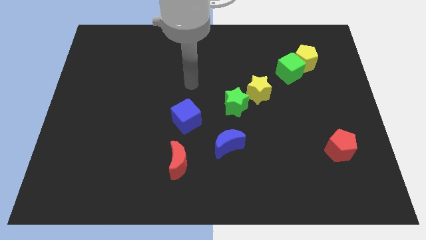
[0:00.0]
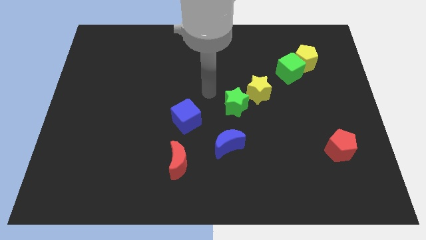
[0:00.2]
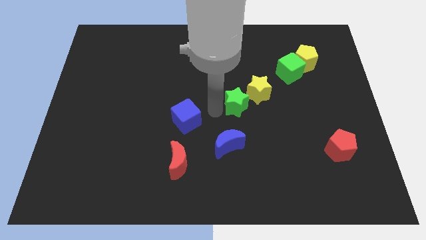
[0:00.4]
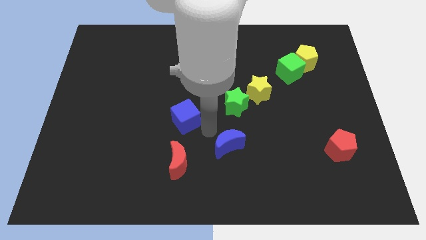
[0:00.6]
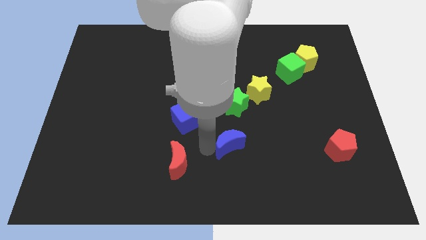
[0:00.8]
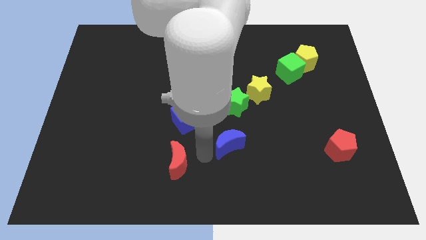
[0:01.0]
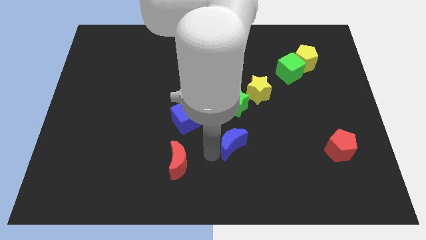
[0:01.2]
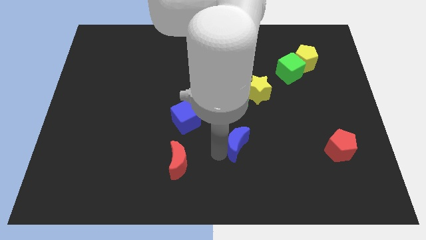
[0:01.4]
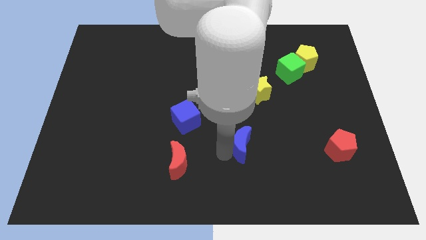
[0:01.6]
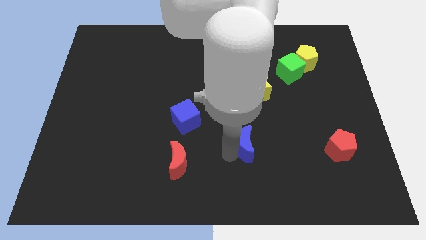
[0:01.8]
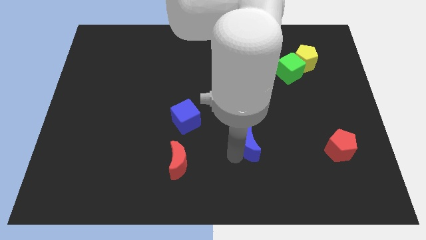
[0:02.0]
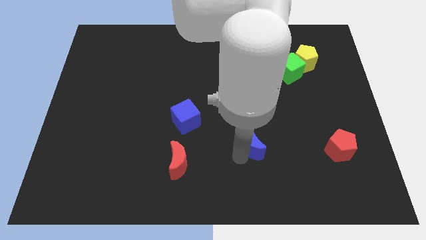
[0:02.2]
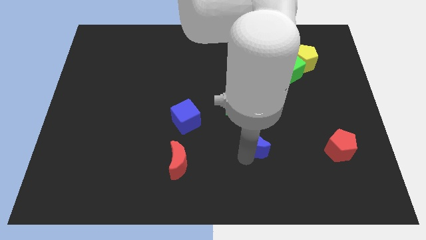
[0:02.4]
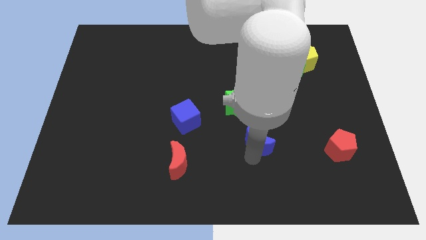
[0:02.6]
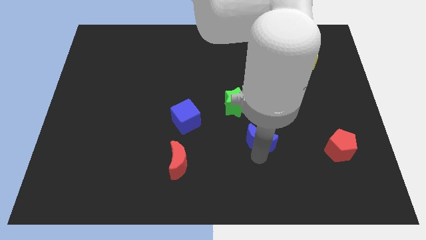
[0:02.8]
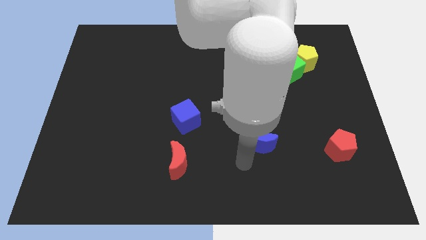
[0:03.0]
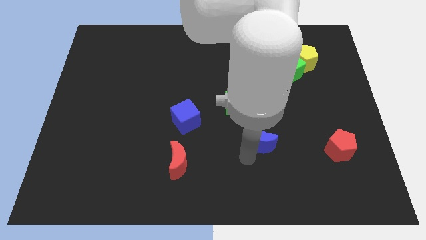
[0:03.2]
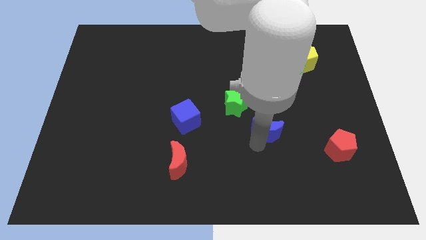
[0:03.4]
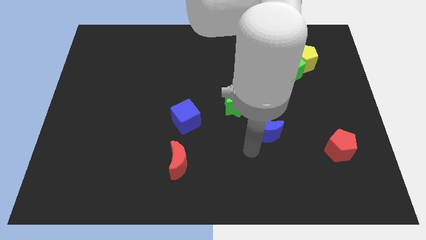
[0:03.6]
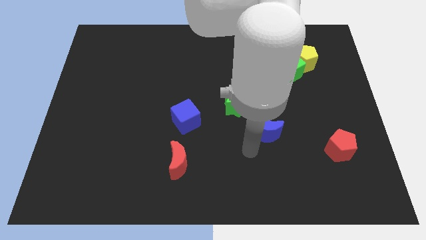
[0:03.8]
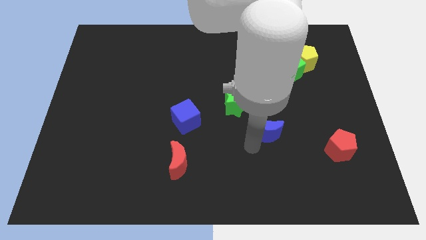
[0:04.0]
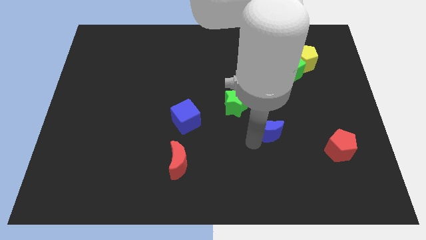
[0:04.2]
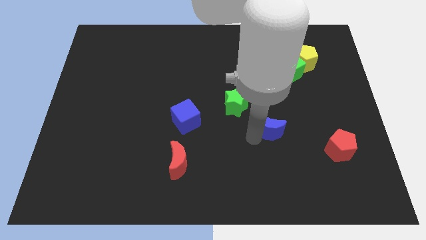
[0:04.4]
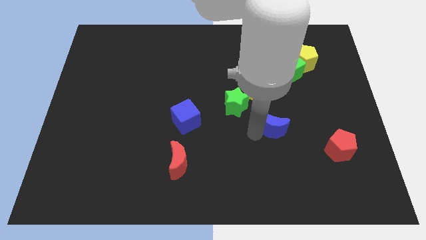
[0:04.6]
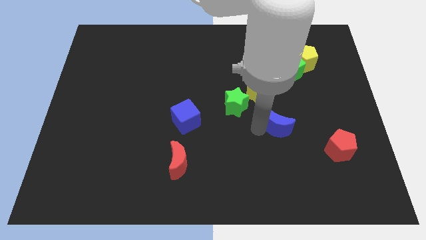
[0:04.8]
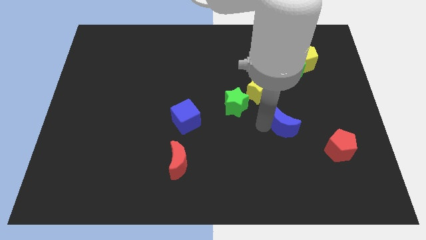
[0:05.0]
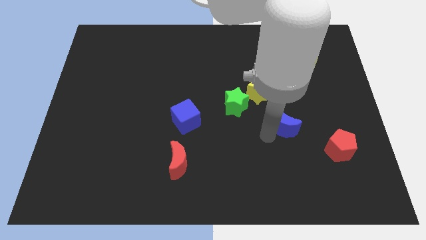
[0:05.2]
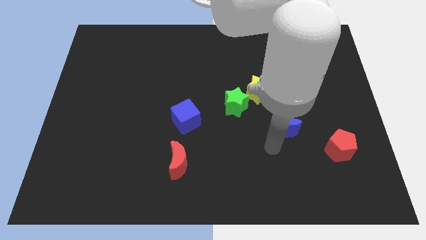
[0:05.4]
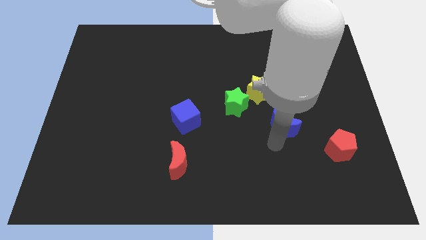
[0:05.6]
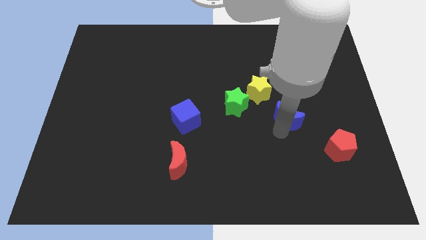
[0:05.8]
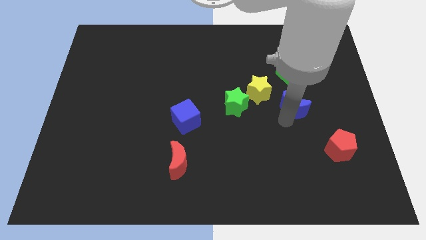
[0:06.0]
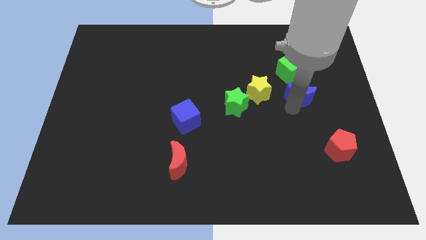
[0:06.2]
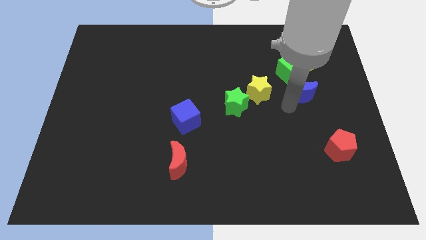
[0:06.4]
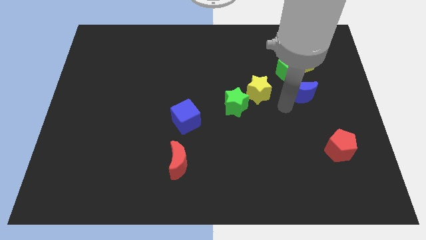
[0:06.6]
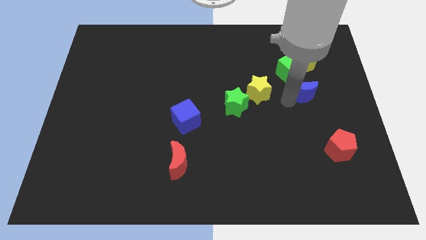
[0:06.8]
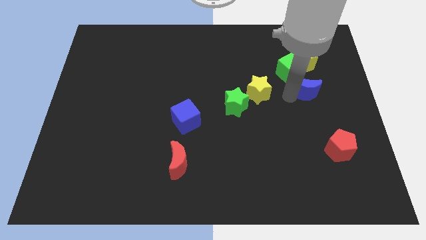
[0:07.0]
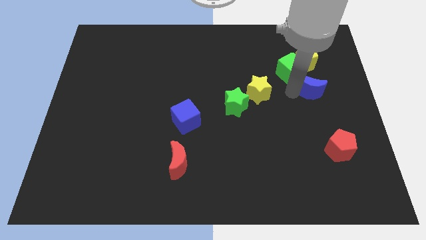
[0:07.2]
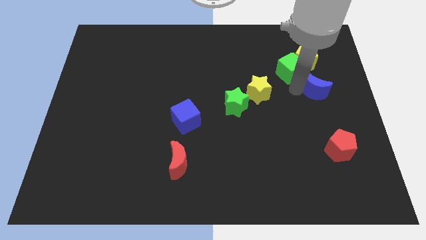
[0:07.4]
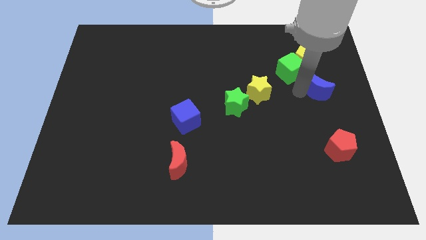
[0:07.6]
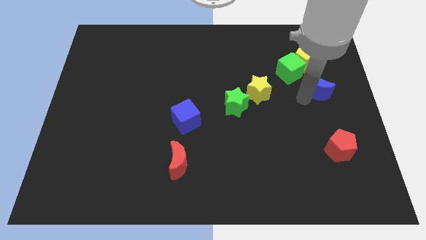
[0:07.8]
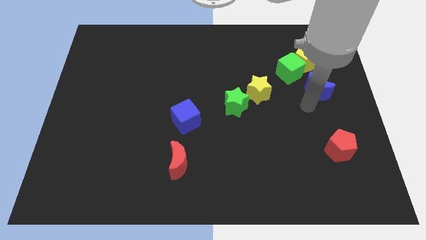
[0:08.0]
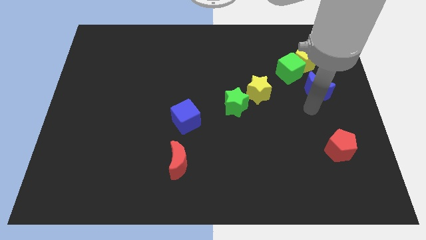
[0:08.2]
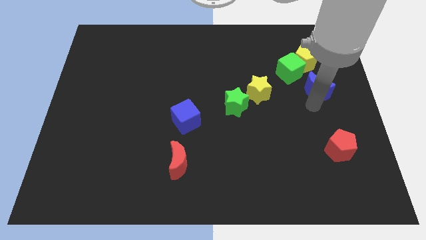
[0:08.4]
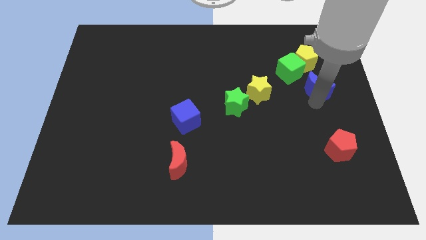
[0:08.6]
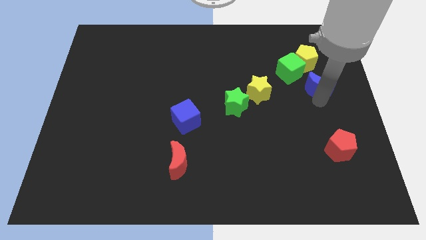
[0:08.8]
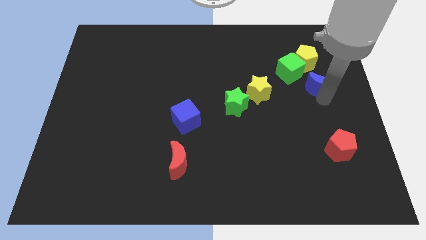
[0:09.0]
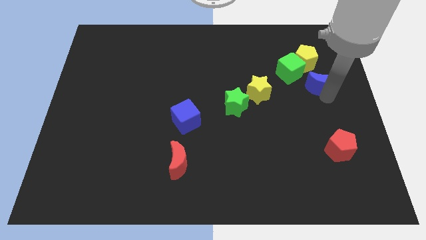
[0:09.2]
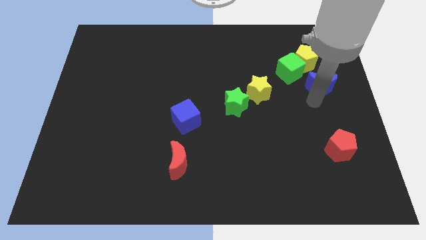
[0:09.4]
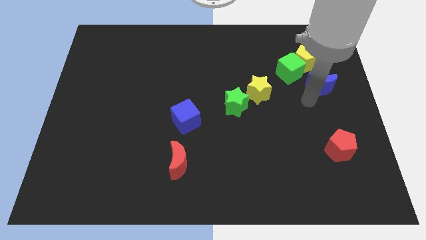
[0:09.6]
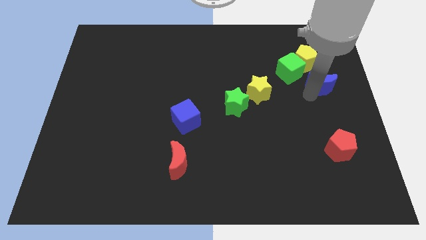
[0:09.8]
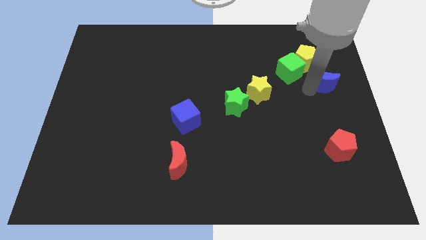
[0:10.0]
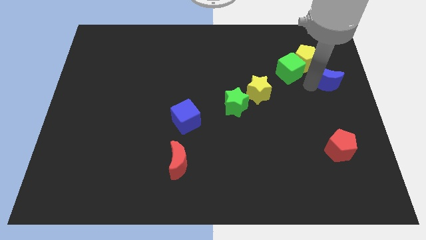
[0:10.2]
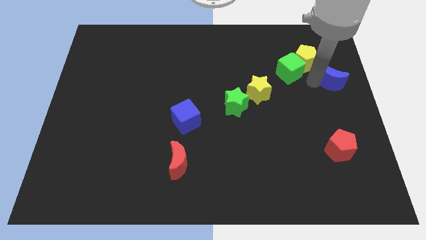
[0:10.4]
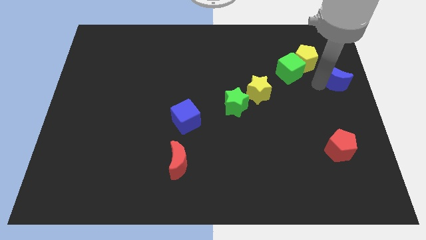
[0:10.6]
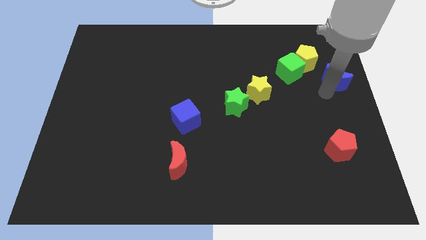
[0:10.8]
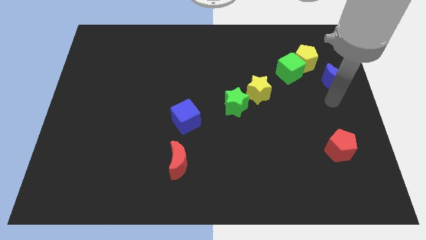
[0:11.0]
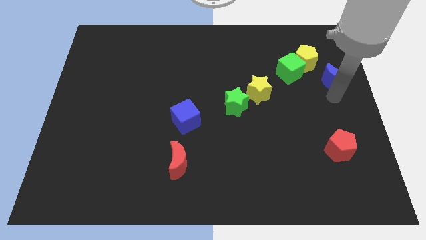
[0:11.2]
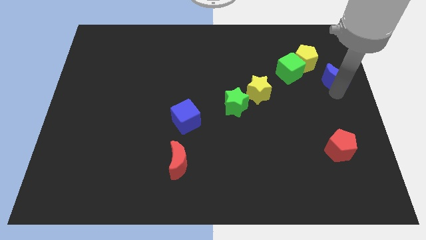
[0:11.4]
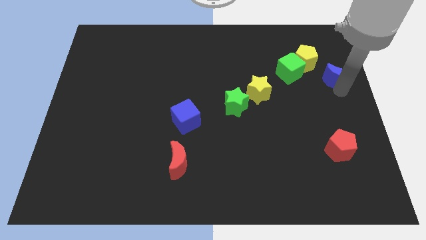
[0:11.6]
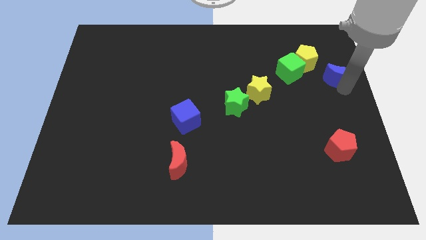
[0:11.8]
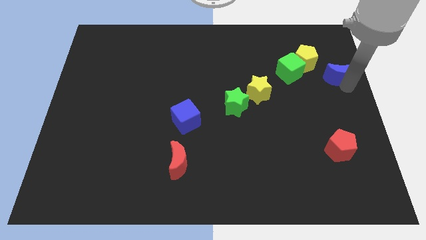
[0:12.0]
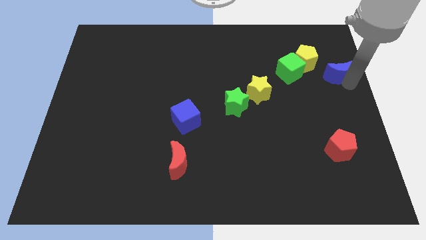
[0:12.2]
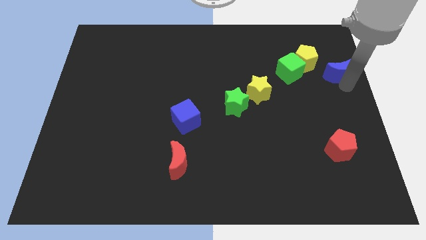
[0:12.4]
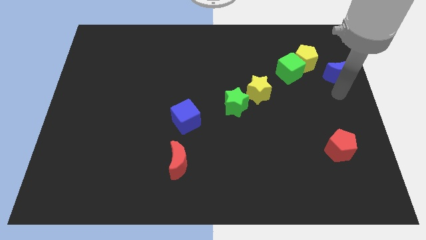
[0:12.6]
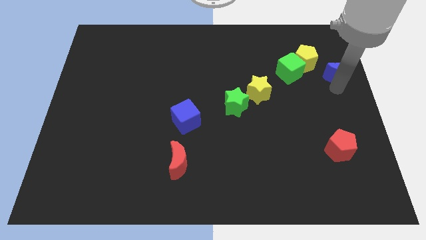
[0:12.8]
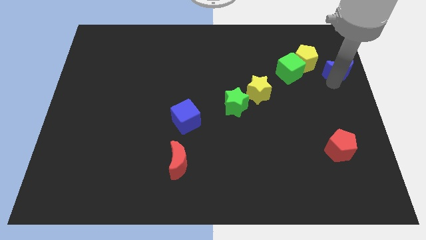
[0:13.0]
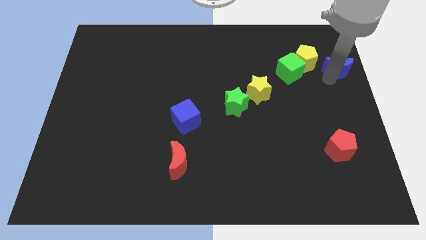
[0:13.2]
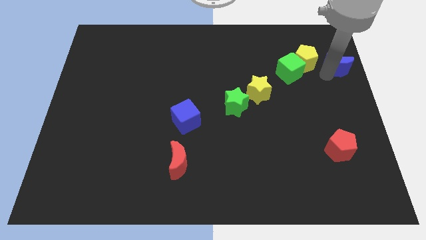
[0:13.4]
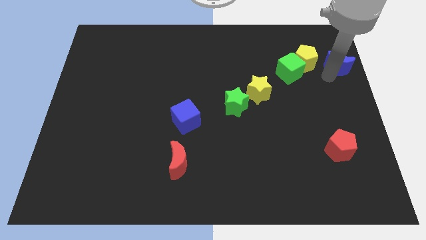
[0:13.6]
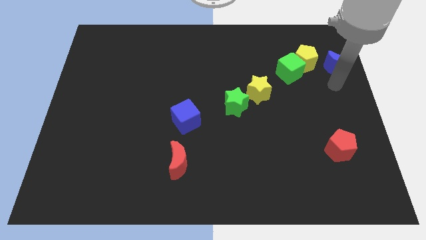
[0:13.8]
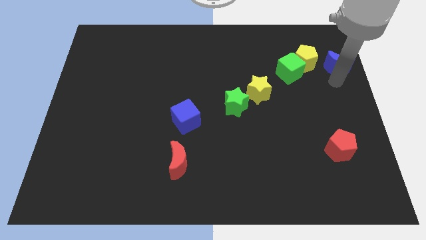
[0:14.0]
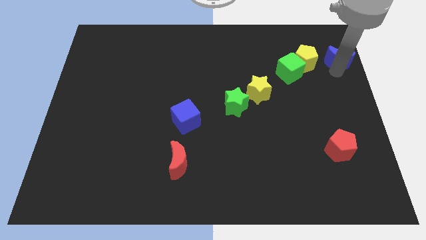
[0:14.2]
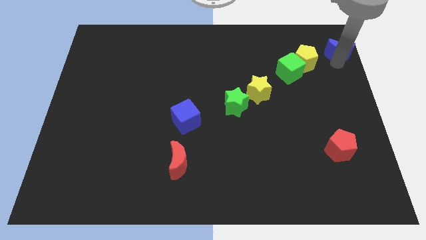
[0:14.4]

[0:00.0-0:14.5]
put the blue moon to the top right

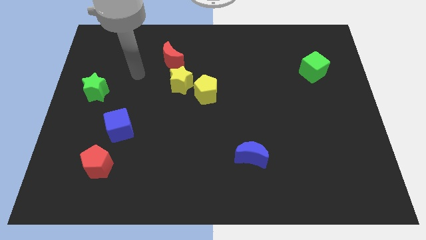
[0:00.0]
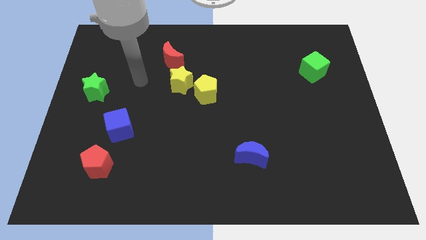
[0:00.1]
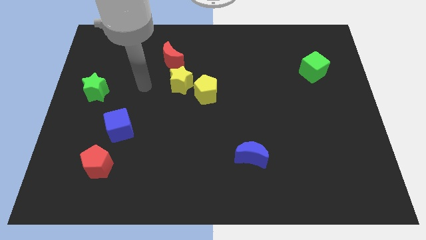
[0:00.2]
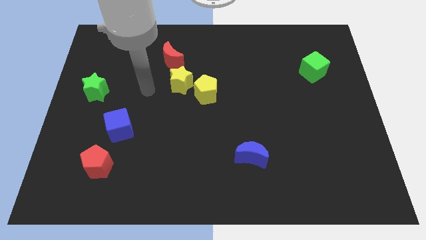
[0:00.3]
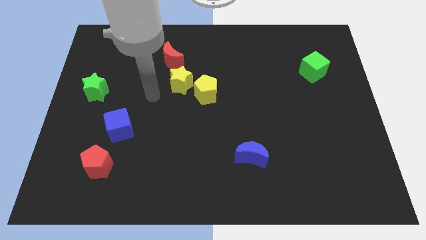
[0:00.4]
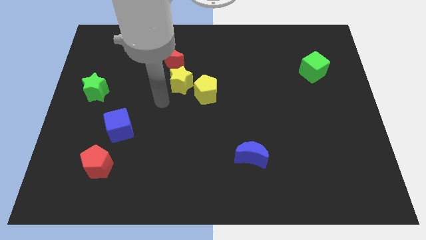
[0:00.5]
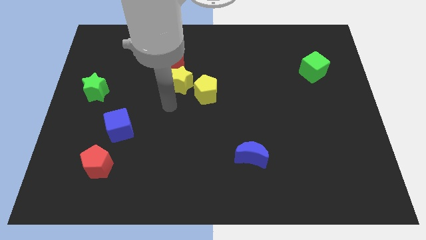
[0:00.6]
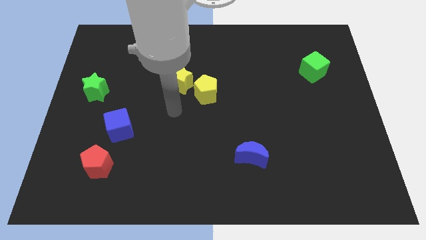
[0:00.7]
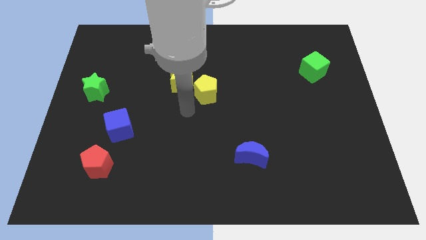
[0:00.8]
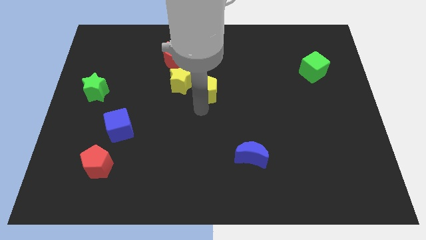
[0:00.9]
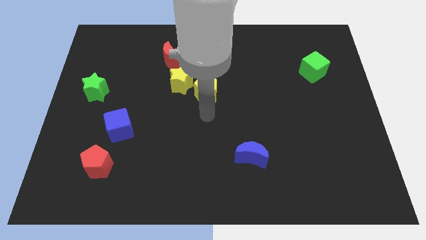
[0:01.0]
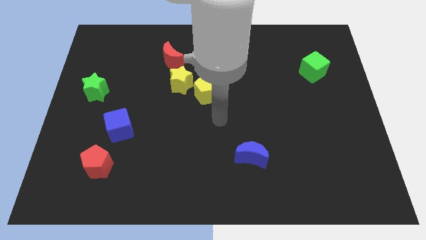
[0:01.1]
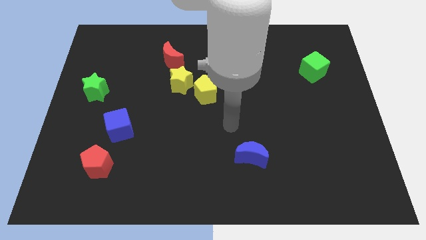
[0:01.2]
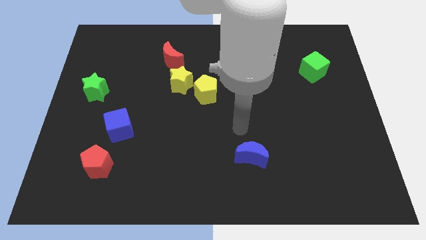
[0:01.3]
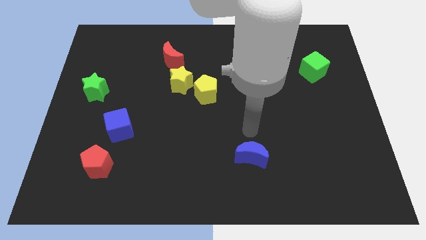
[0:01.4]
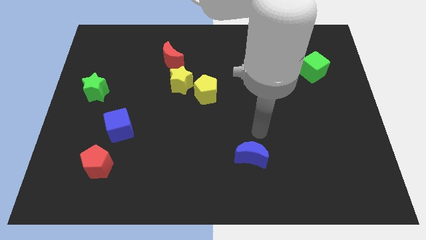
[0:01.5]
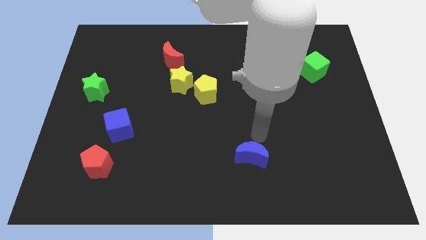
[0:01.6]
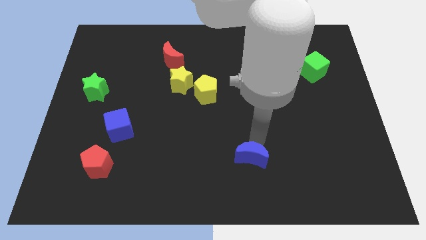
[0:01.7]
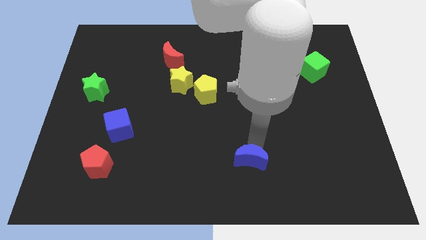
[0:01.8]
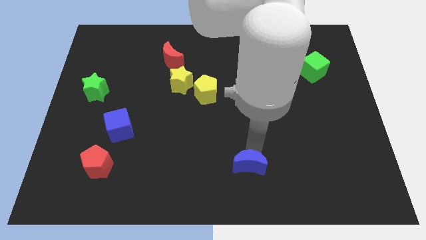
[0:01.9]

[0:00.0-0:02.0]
put the blue moon to the bottom side
